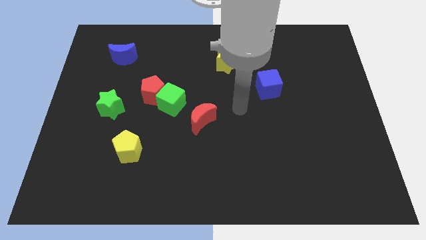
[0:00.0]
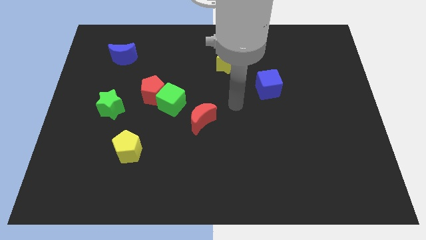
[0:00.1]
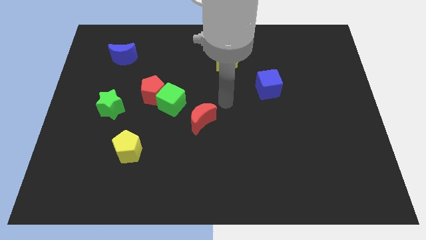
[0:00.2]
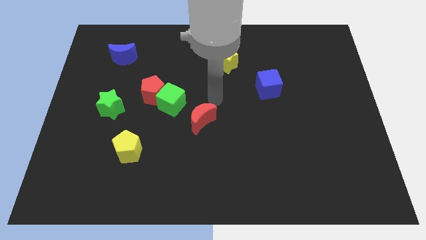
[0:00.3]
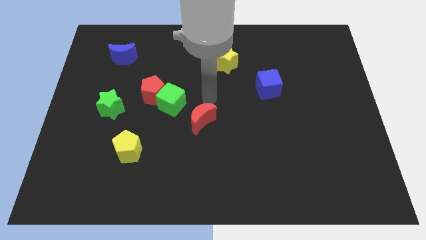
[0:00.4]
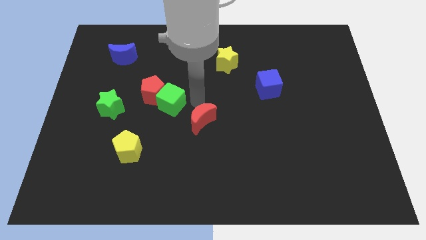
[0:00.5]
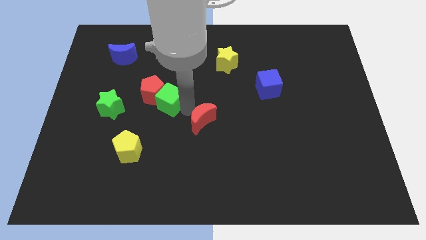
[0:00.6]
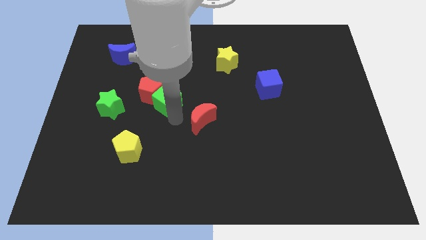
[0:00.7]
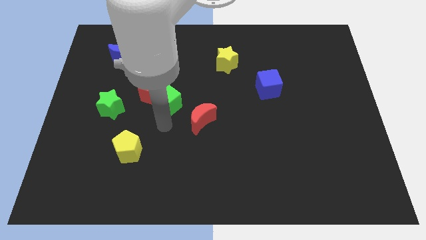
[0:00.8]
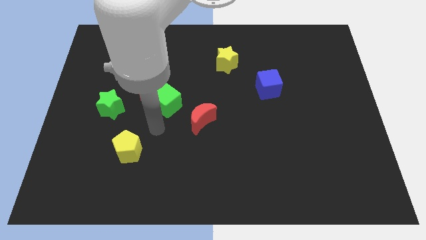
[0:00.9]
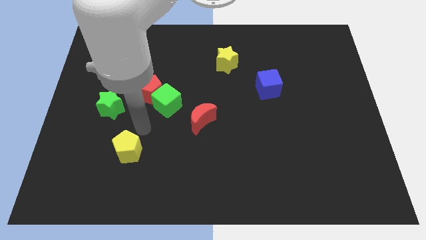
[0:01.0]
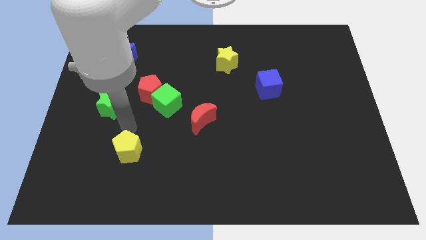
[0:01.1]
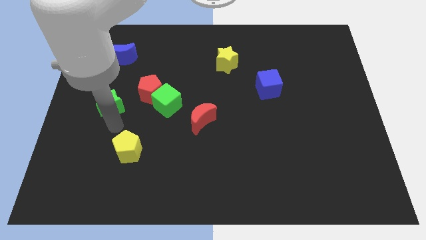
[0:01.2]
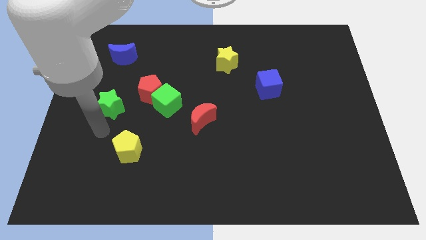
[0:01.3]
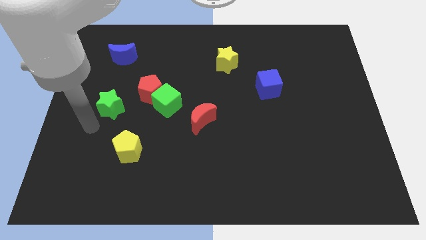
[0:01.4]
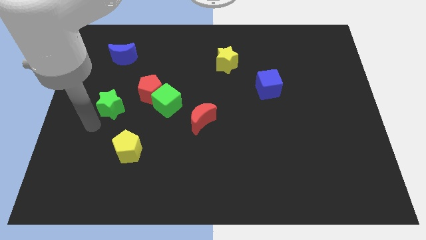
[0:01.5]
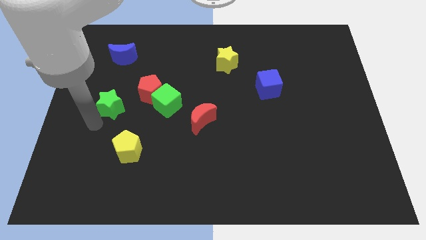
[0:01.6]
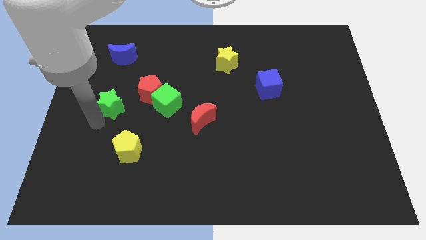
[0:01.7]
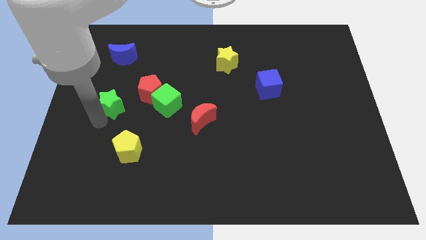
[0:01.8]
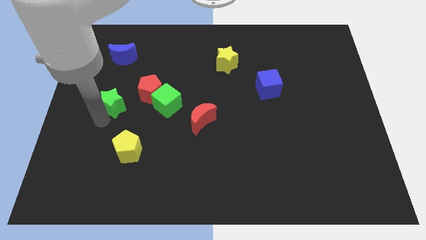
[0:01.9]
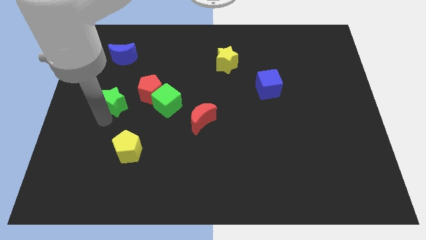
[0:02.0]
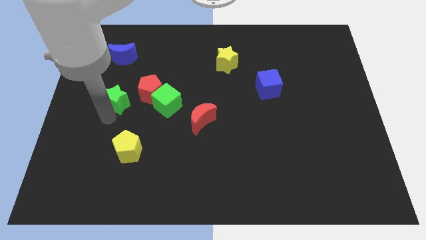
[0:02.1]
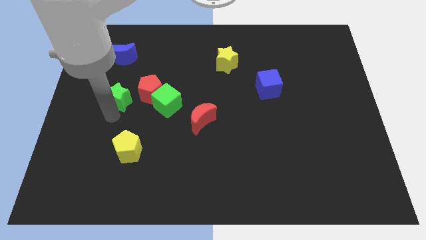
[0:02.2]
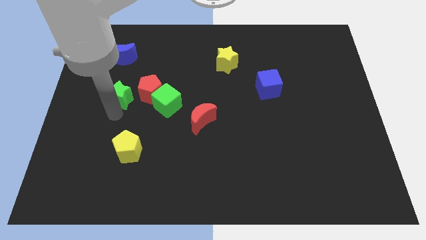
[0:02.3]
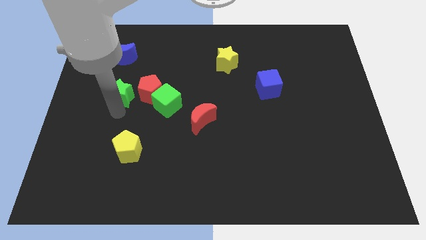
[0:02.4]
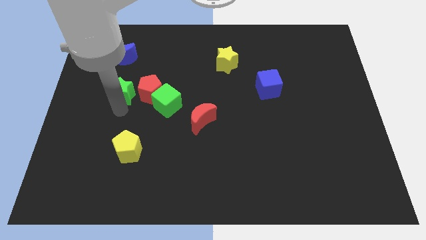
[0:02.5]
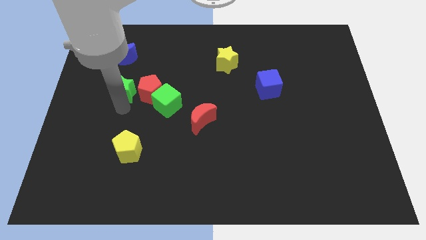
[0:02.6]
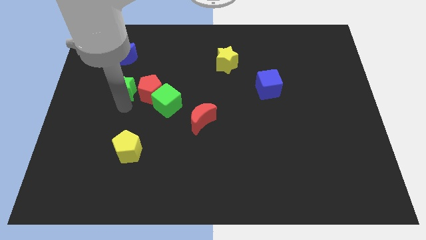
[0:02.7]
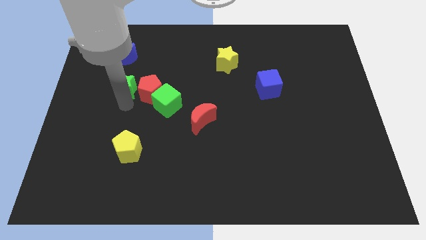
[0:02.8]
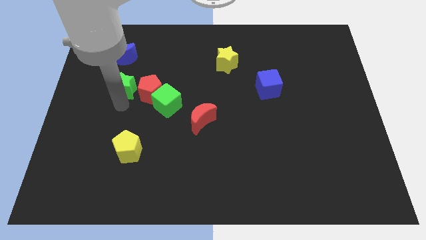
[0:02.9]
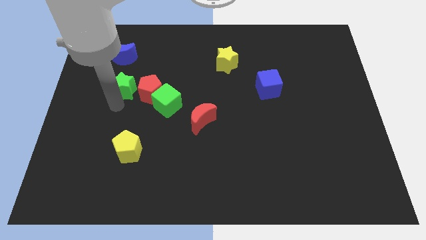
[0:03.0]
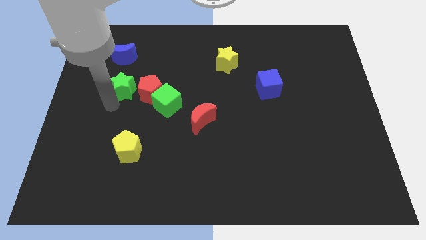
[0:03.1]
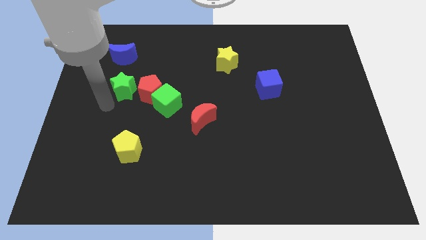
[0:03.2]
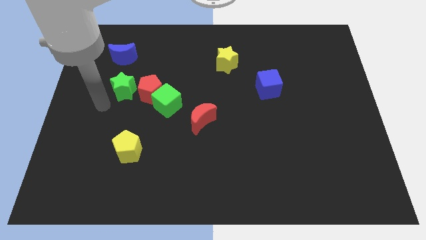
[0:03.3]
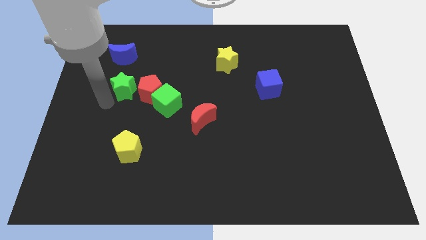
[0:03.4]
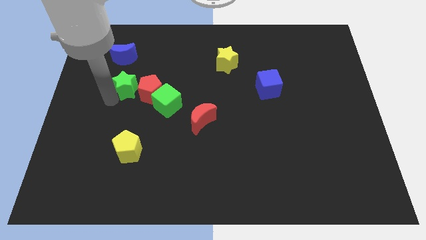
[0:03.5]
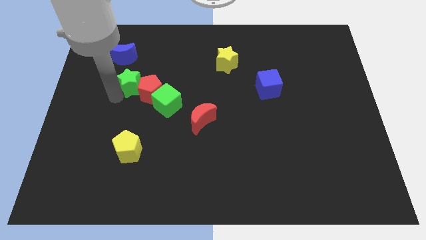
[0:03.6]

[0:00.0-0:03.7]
push the green star diagonally up and right somewhat

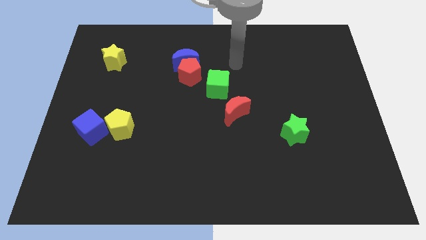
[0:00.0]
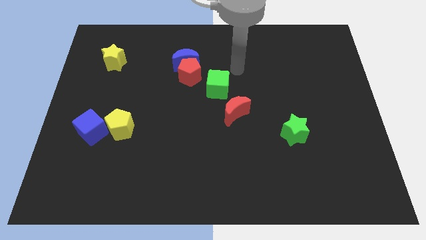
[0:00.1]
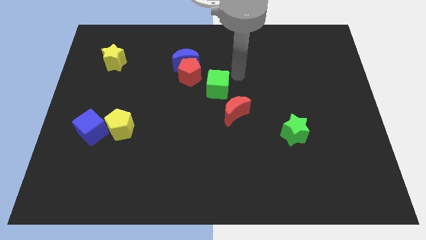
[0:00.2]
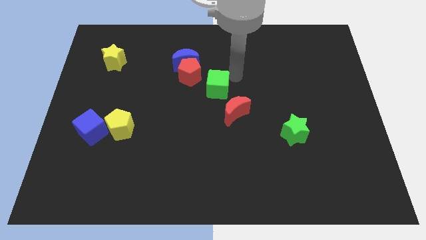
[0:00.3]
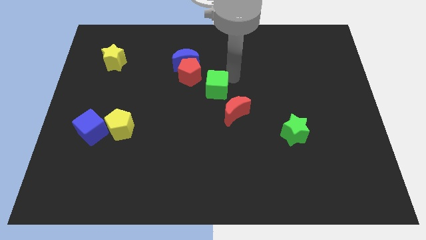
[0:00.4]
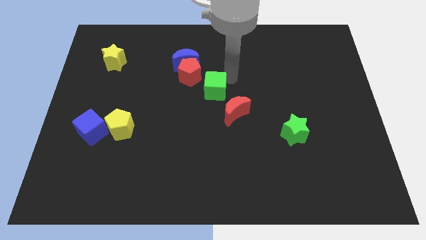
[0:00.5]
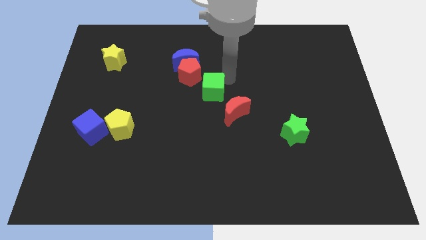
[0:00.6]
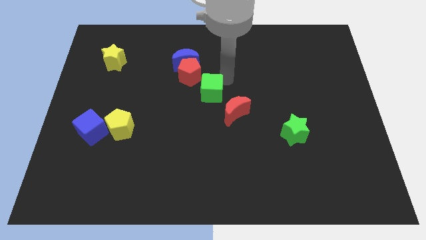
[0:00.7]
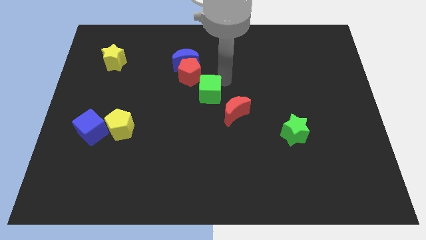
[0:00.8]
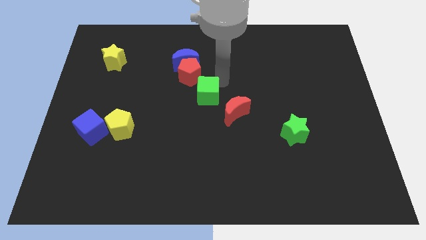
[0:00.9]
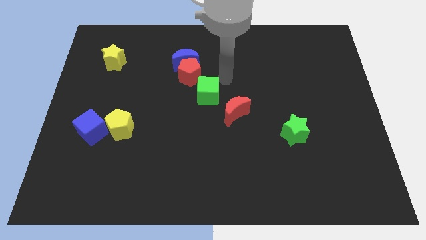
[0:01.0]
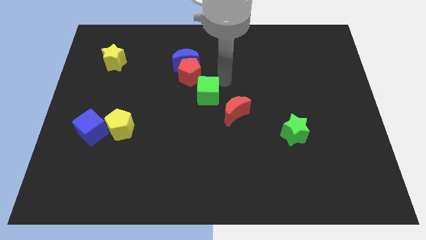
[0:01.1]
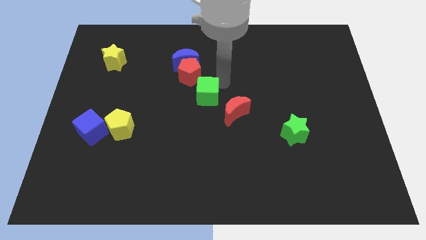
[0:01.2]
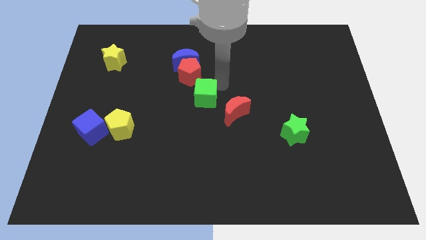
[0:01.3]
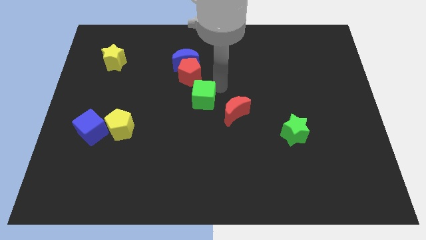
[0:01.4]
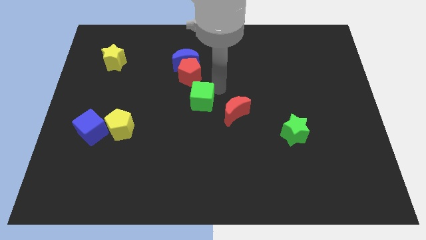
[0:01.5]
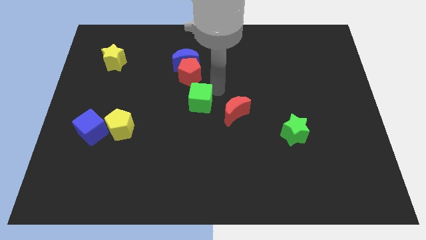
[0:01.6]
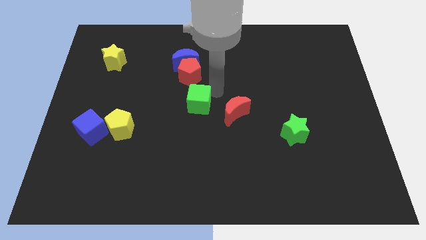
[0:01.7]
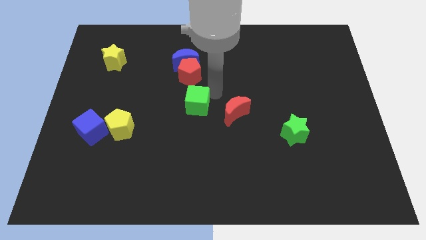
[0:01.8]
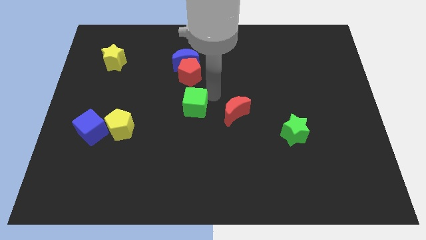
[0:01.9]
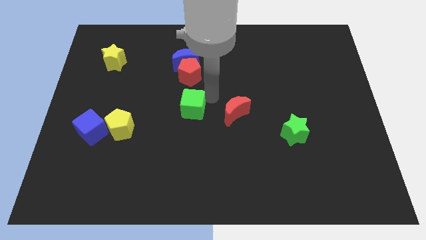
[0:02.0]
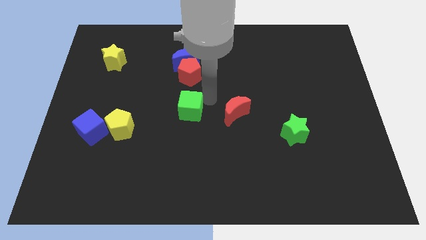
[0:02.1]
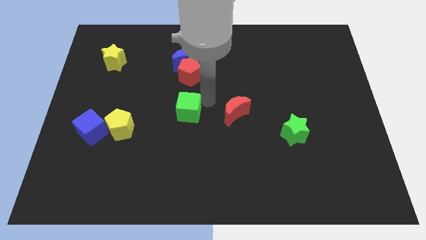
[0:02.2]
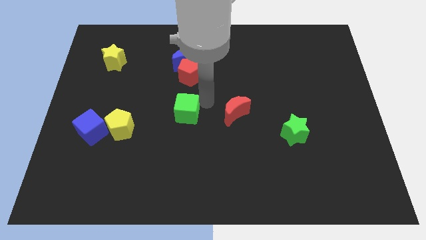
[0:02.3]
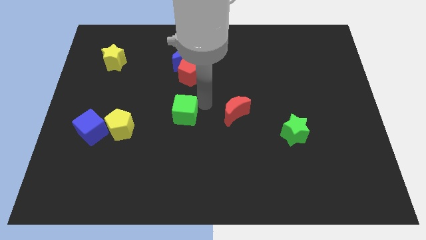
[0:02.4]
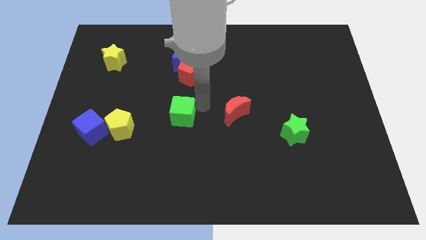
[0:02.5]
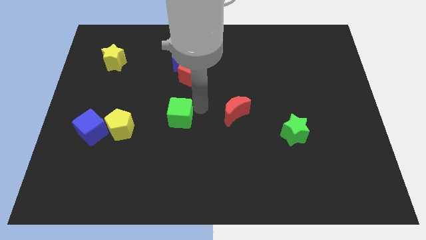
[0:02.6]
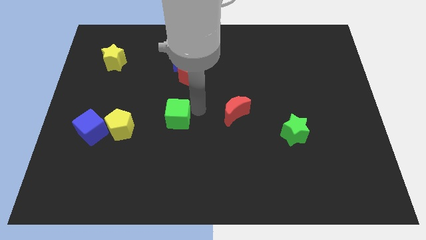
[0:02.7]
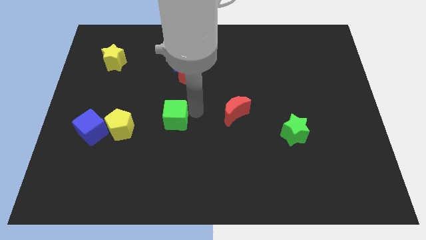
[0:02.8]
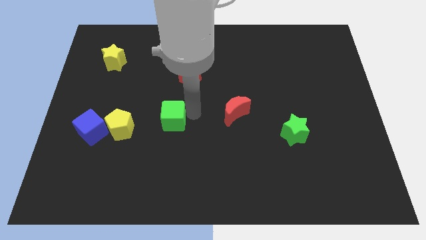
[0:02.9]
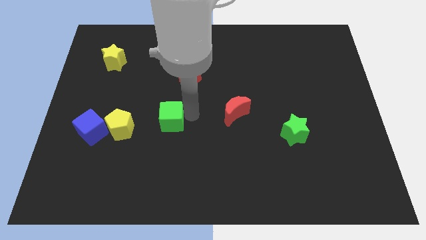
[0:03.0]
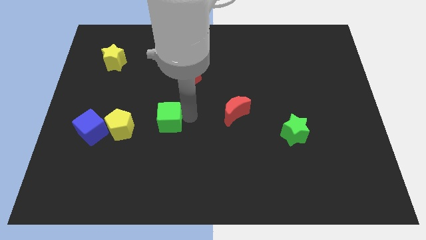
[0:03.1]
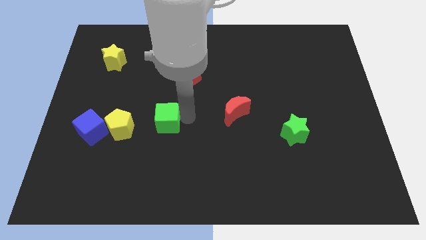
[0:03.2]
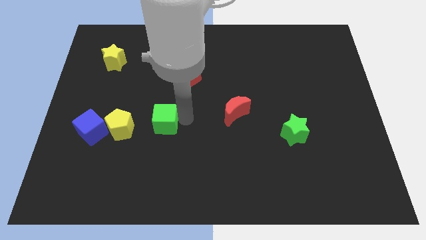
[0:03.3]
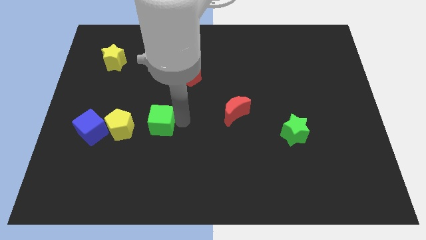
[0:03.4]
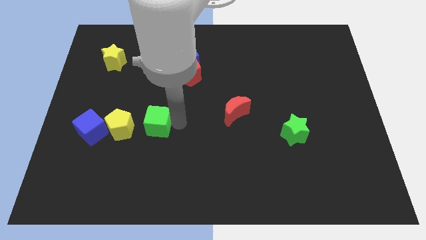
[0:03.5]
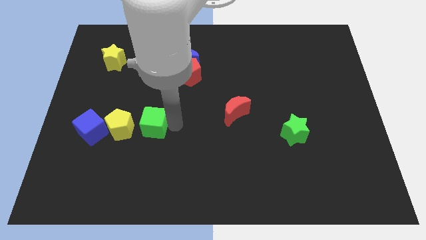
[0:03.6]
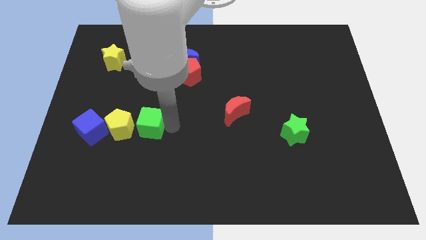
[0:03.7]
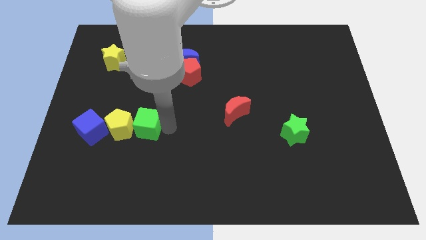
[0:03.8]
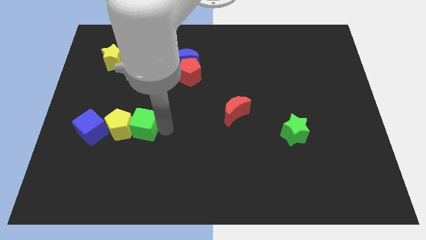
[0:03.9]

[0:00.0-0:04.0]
push the green cube downwards and then to the left

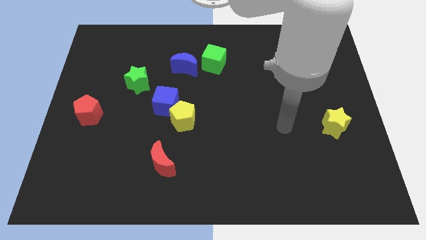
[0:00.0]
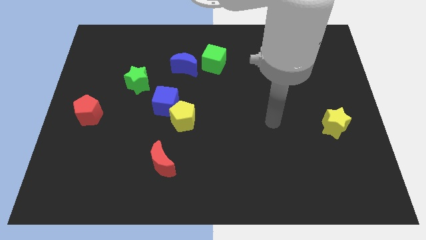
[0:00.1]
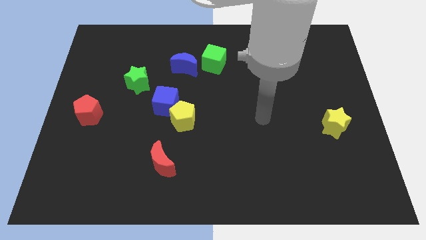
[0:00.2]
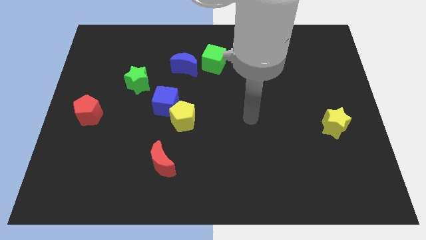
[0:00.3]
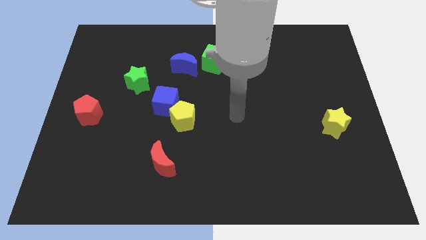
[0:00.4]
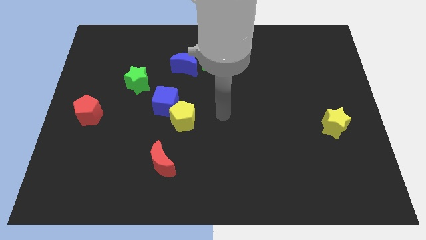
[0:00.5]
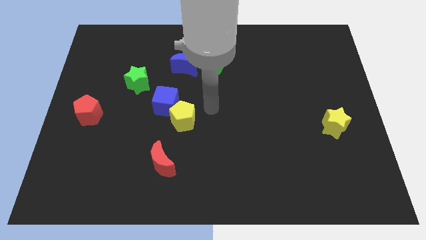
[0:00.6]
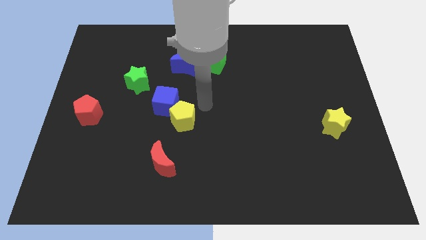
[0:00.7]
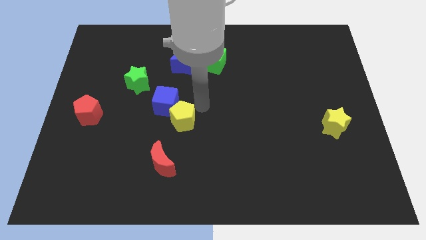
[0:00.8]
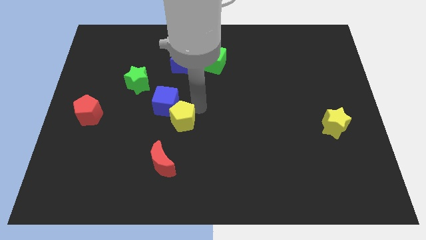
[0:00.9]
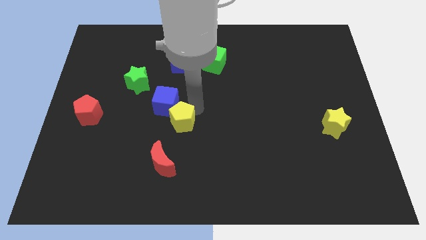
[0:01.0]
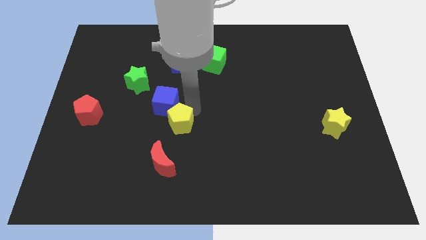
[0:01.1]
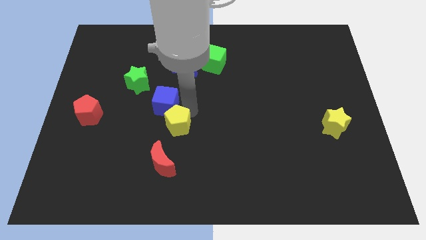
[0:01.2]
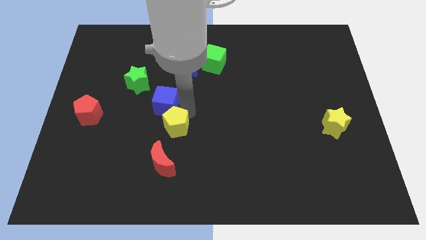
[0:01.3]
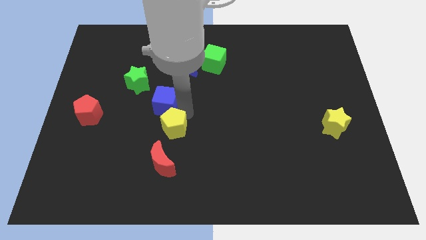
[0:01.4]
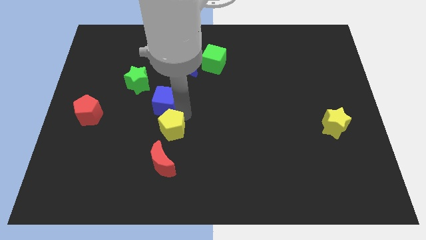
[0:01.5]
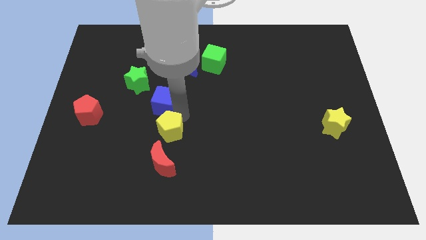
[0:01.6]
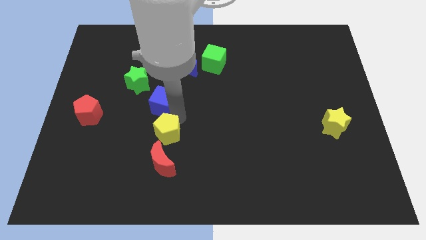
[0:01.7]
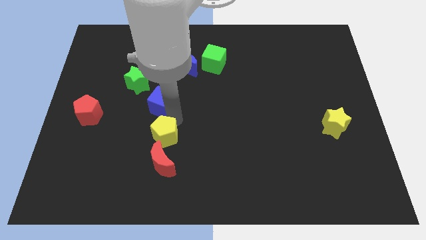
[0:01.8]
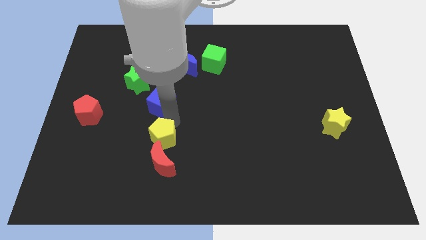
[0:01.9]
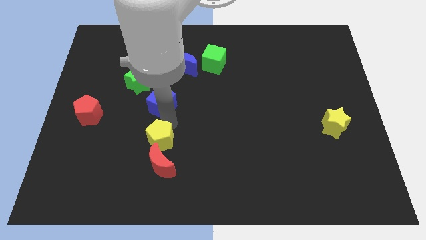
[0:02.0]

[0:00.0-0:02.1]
slide the yellow pentagon a little bit diagonally down and left
